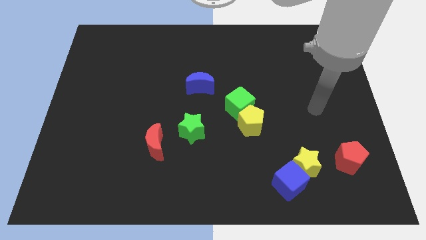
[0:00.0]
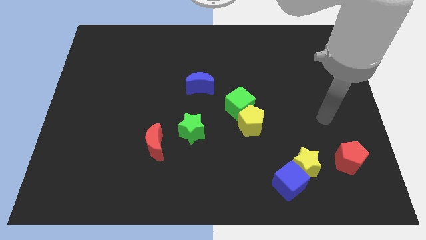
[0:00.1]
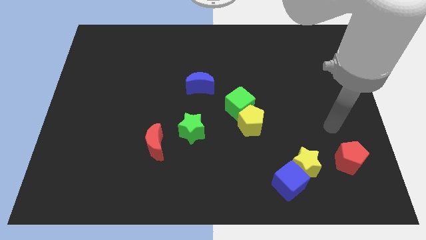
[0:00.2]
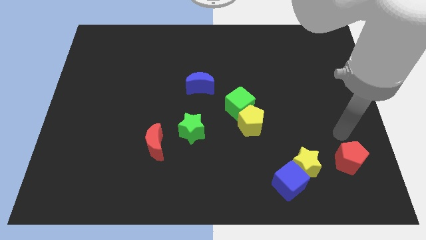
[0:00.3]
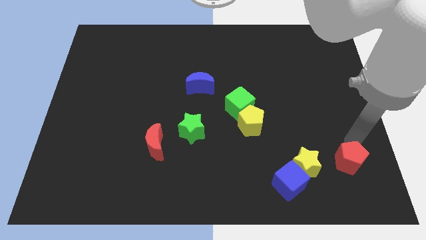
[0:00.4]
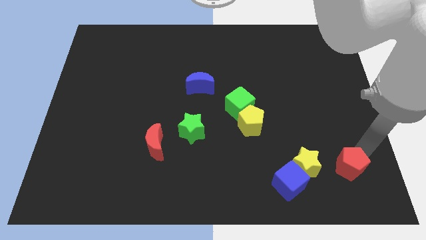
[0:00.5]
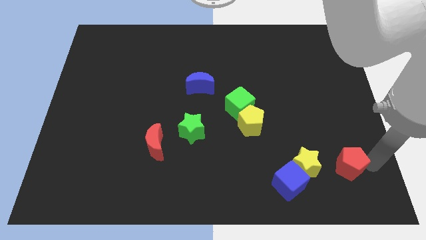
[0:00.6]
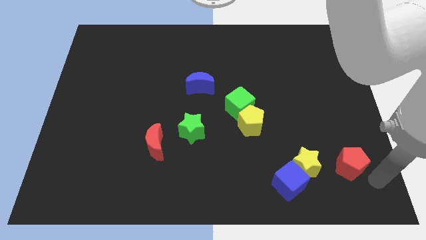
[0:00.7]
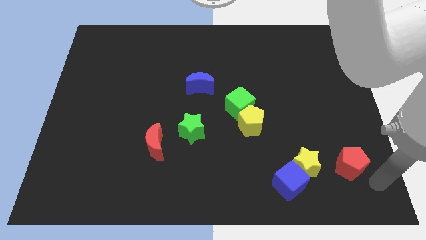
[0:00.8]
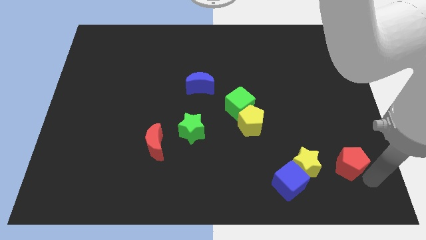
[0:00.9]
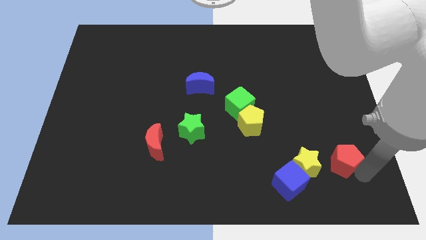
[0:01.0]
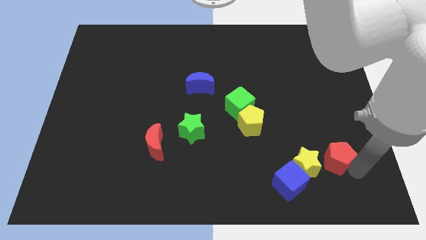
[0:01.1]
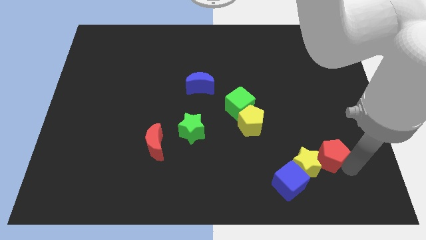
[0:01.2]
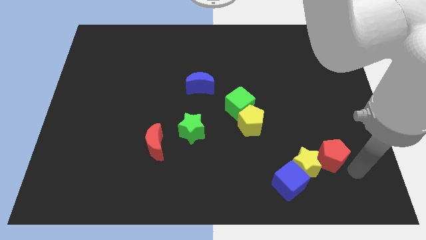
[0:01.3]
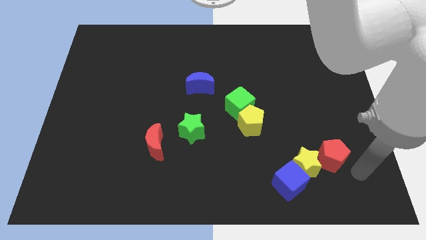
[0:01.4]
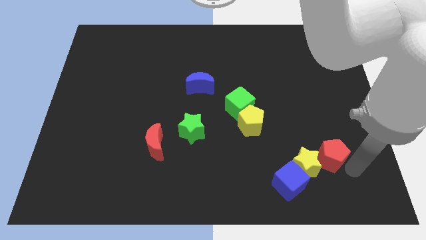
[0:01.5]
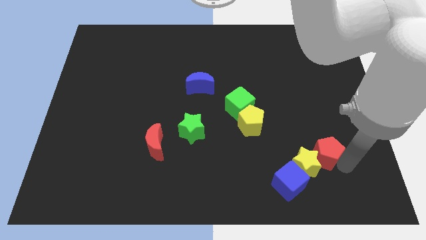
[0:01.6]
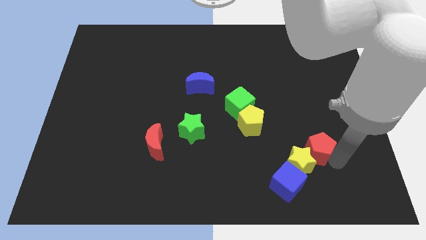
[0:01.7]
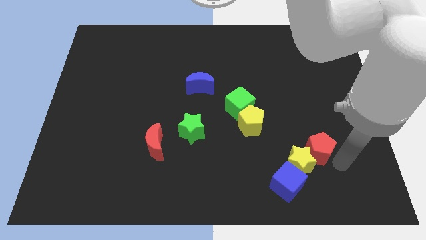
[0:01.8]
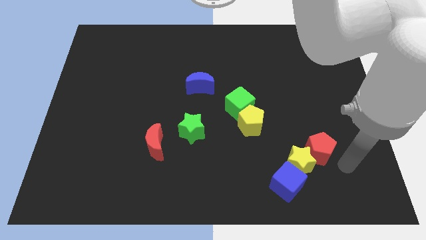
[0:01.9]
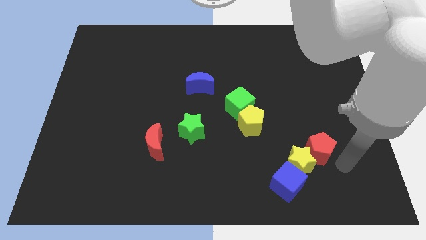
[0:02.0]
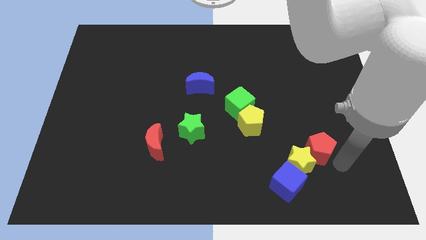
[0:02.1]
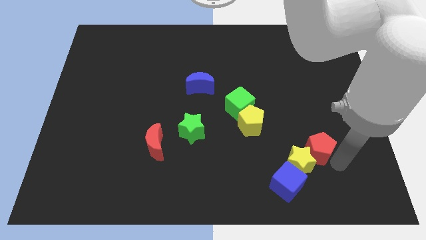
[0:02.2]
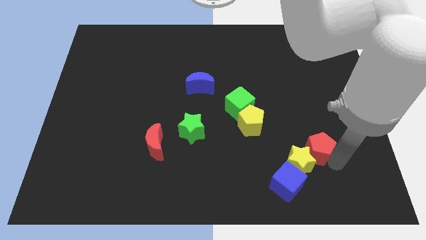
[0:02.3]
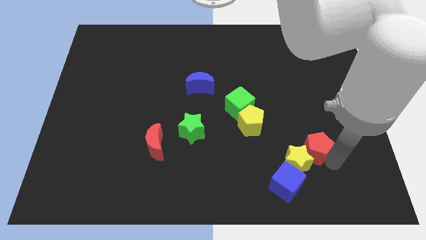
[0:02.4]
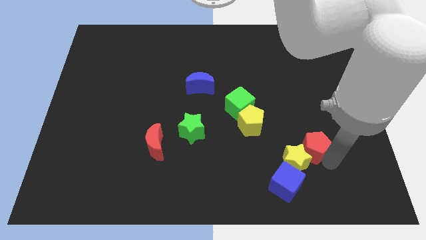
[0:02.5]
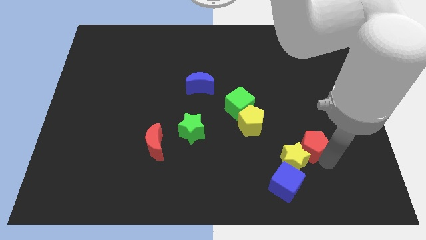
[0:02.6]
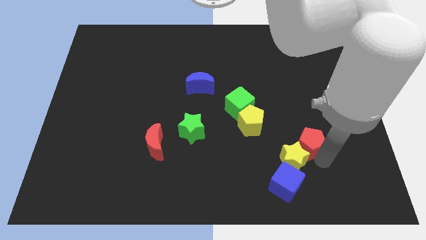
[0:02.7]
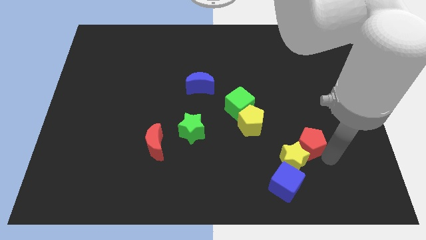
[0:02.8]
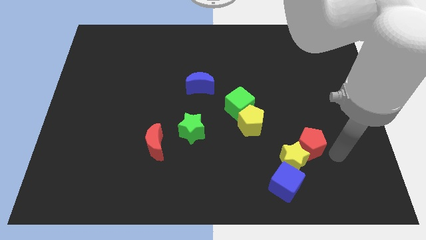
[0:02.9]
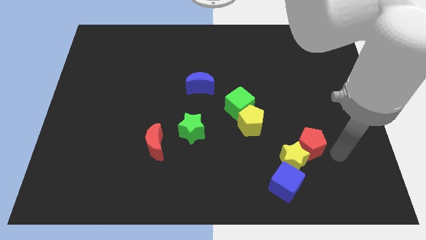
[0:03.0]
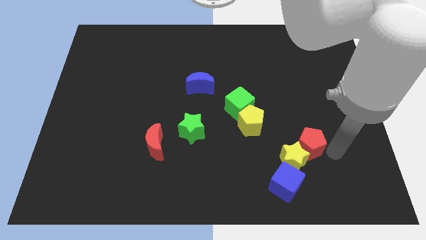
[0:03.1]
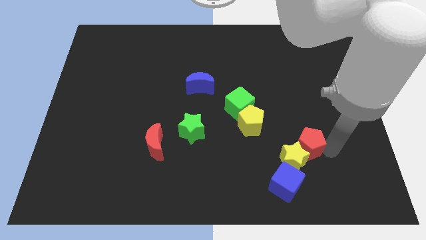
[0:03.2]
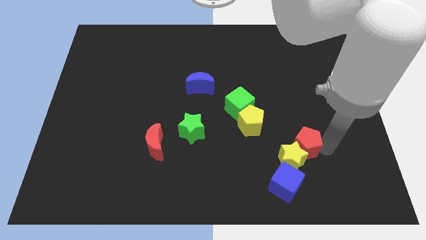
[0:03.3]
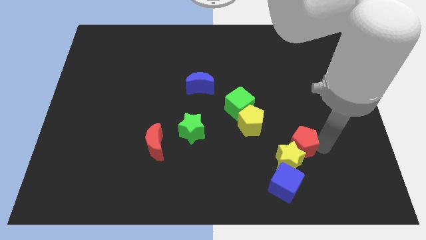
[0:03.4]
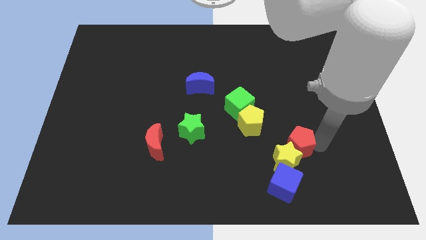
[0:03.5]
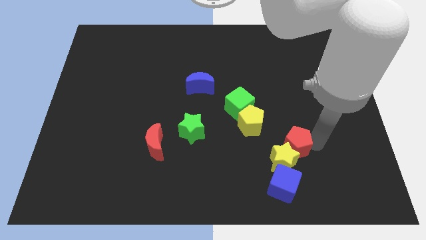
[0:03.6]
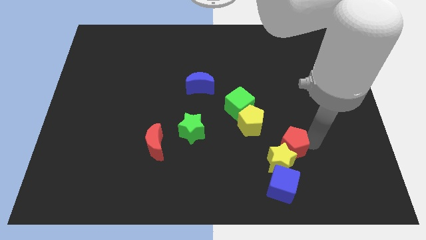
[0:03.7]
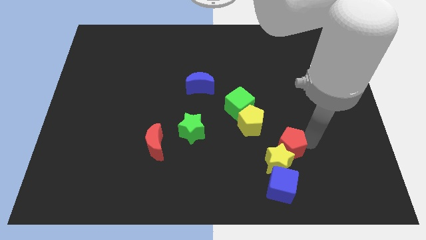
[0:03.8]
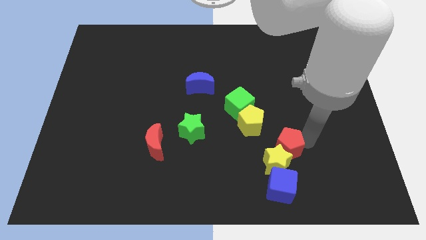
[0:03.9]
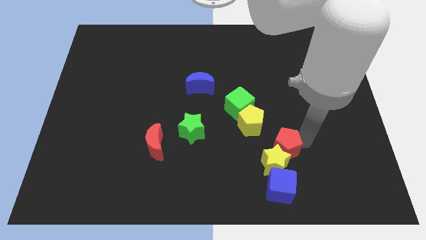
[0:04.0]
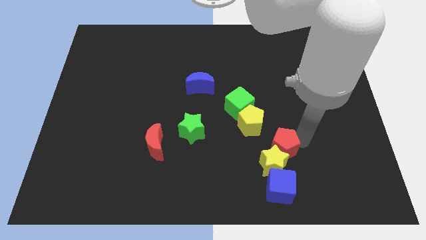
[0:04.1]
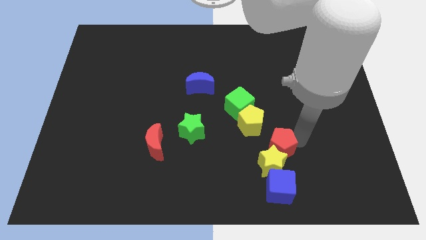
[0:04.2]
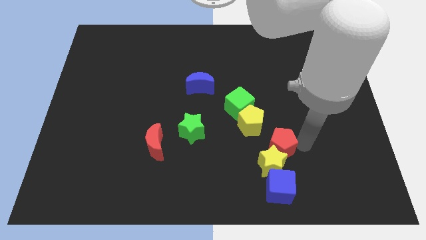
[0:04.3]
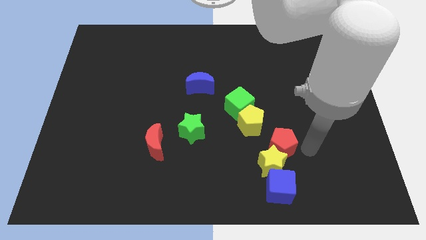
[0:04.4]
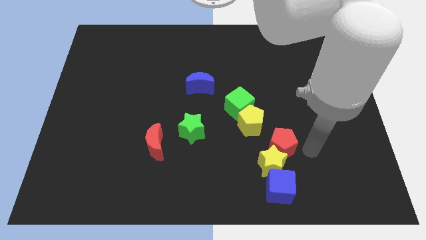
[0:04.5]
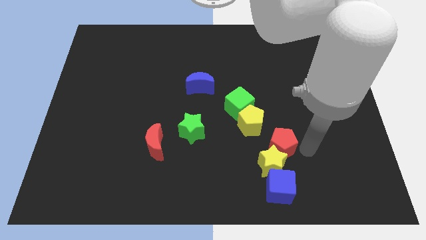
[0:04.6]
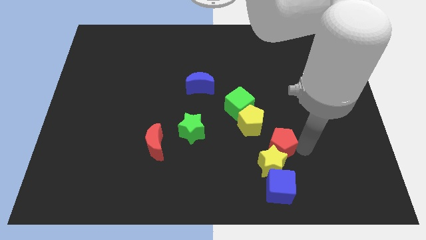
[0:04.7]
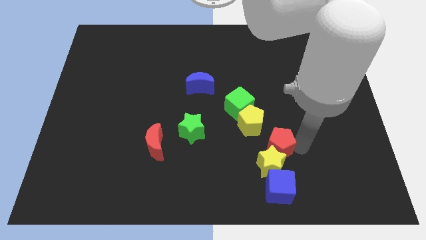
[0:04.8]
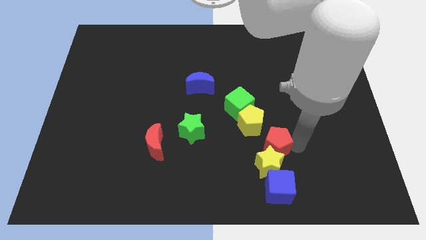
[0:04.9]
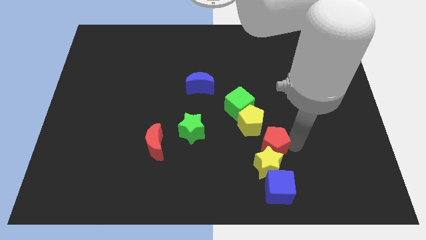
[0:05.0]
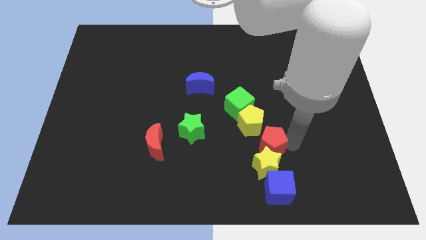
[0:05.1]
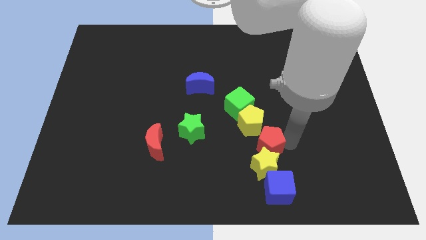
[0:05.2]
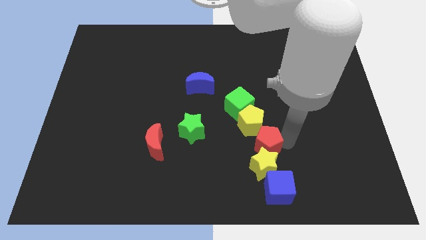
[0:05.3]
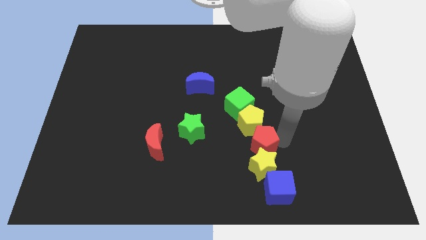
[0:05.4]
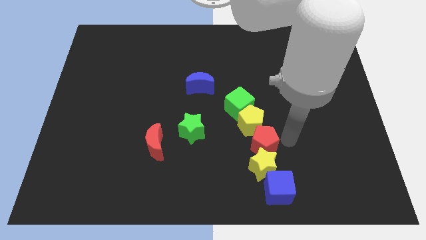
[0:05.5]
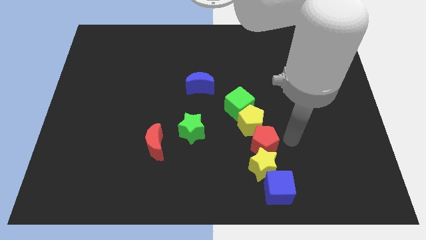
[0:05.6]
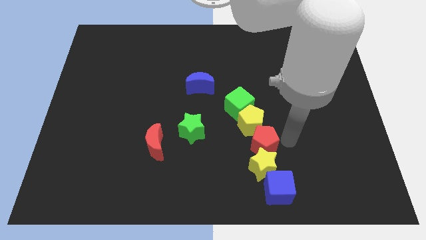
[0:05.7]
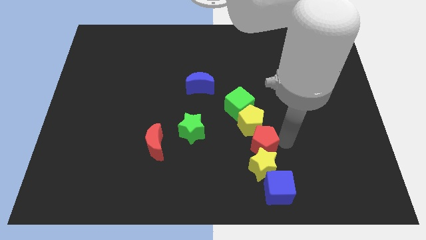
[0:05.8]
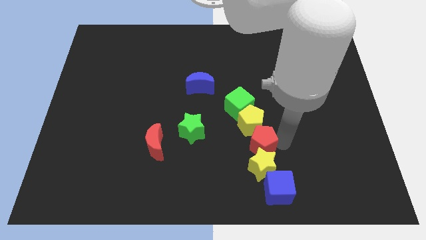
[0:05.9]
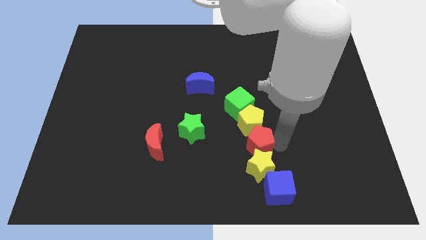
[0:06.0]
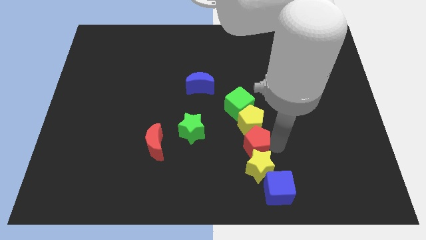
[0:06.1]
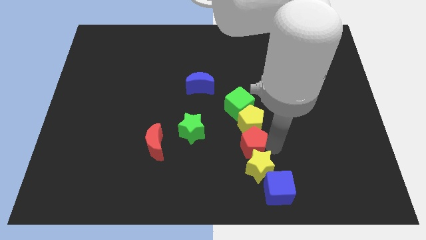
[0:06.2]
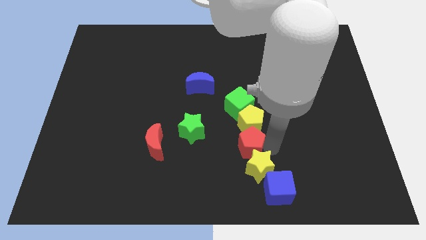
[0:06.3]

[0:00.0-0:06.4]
push the red pentagon to the left

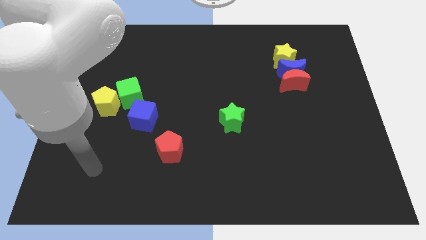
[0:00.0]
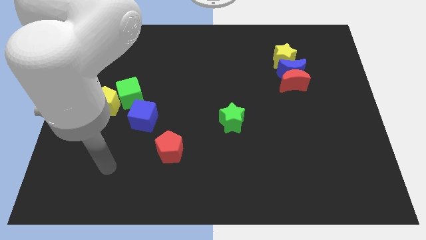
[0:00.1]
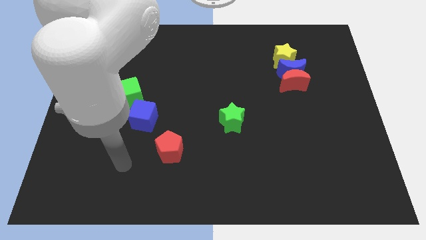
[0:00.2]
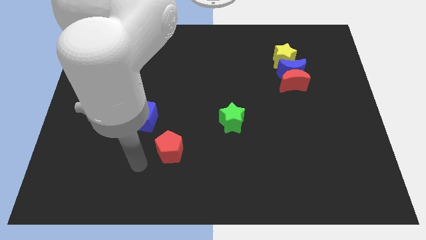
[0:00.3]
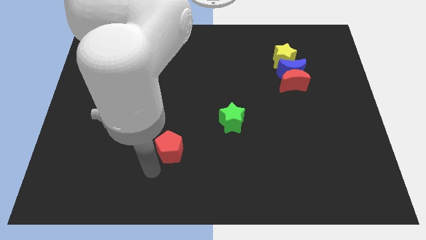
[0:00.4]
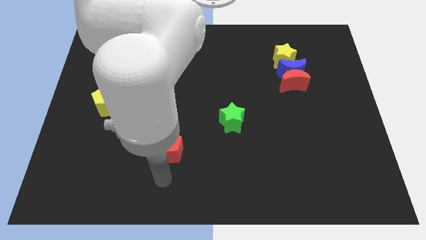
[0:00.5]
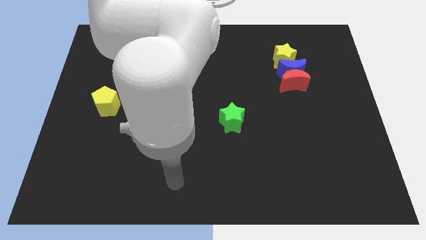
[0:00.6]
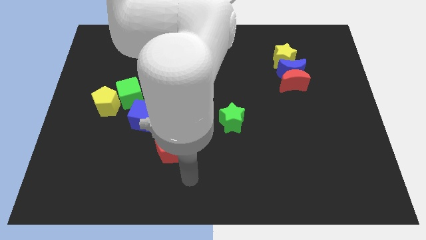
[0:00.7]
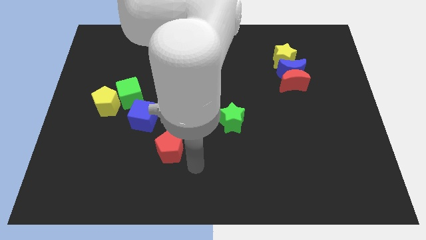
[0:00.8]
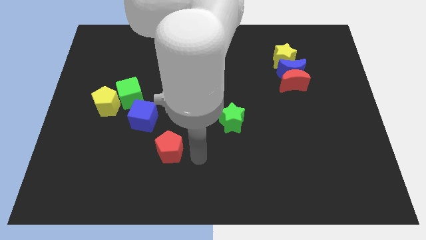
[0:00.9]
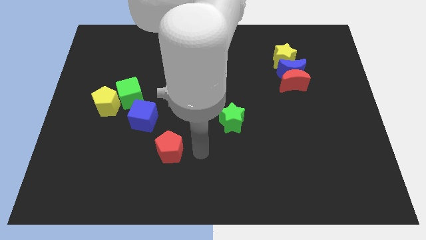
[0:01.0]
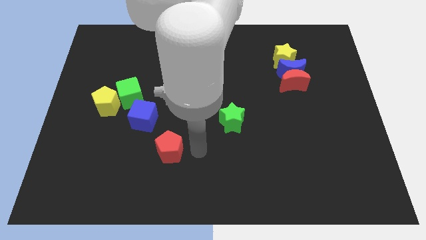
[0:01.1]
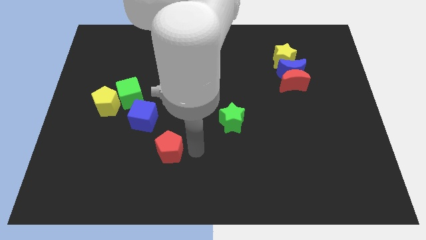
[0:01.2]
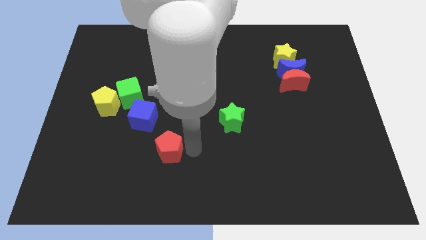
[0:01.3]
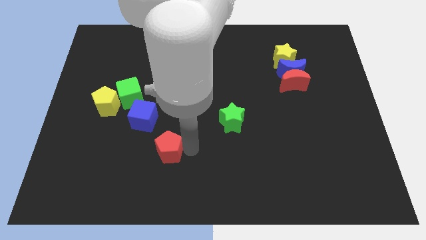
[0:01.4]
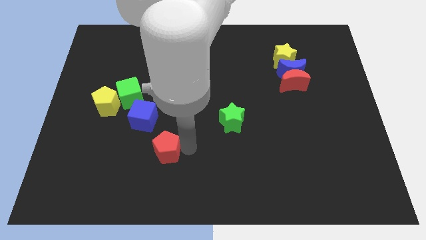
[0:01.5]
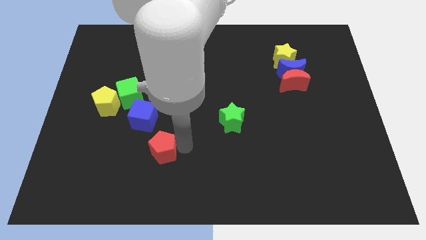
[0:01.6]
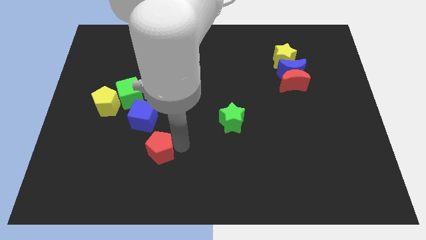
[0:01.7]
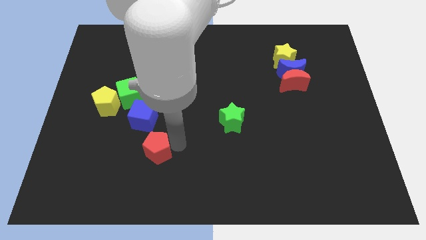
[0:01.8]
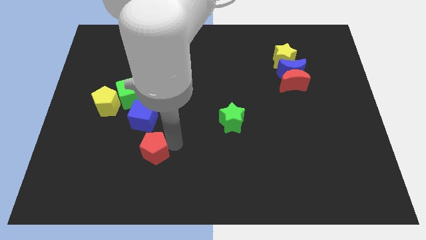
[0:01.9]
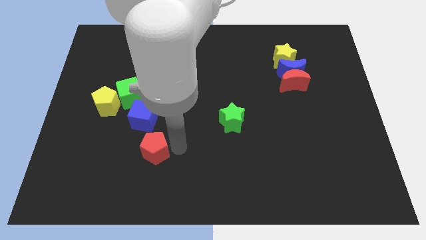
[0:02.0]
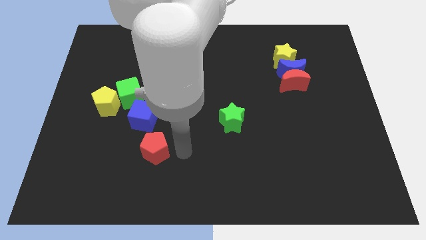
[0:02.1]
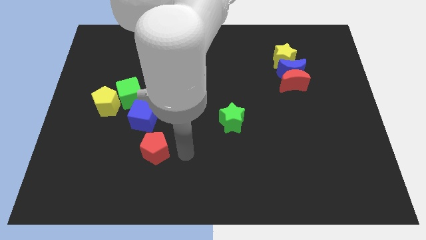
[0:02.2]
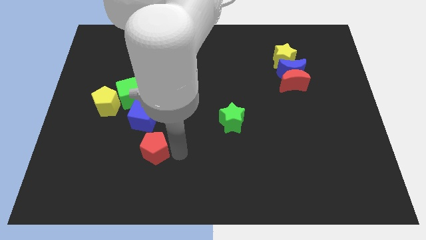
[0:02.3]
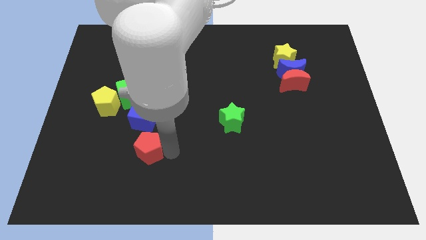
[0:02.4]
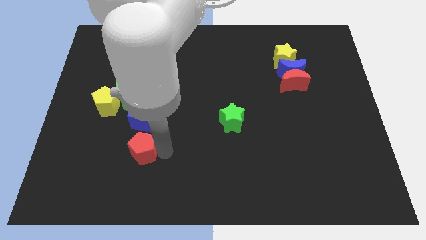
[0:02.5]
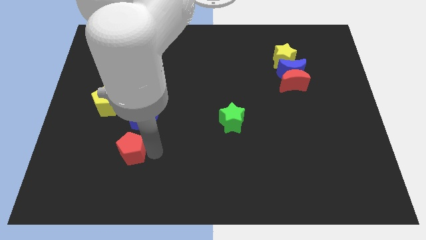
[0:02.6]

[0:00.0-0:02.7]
slide the red pentagon a little bit to the left
